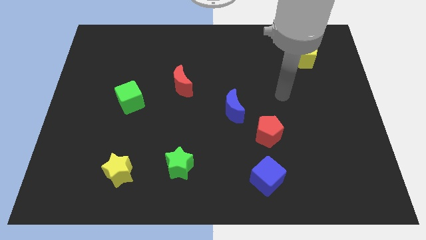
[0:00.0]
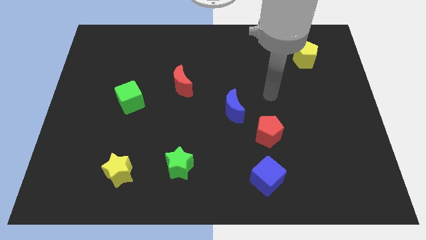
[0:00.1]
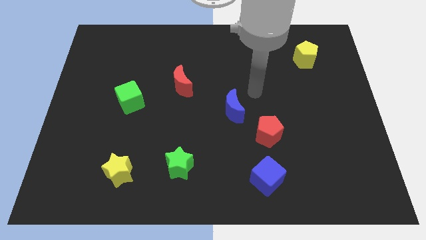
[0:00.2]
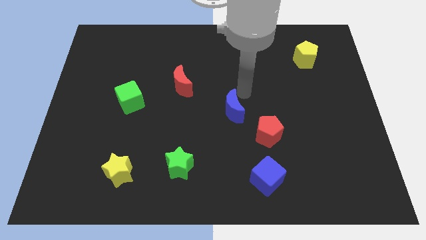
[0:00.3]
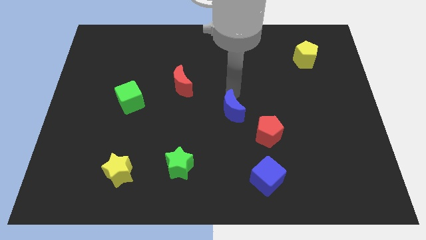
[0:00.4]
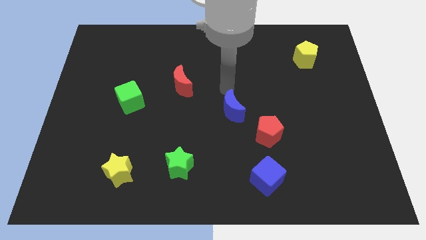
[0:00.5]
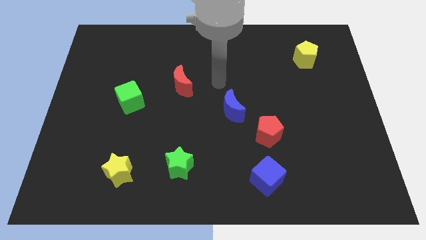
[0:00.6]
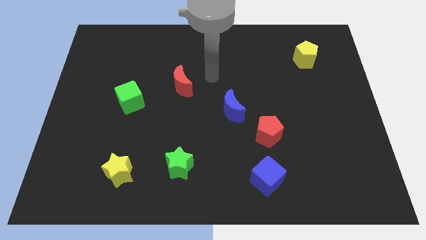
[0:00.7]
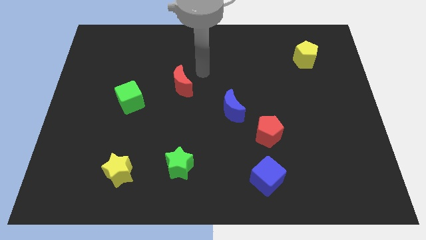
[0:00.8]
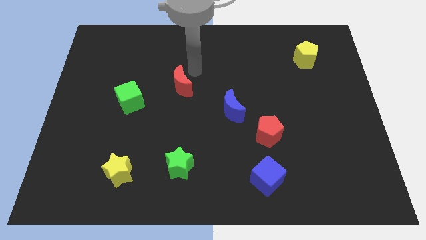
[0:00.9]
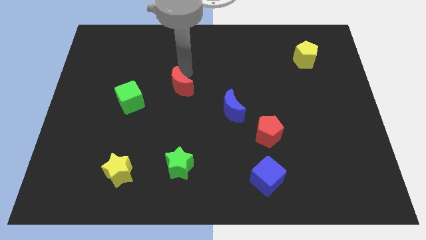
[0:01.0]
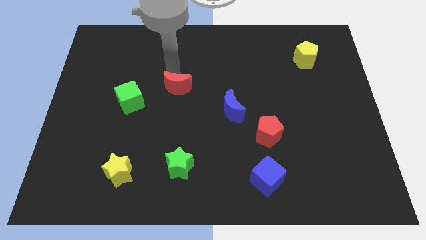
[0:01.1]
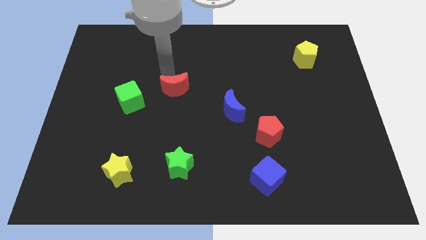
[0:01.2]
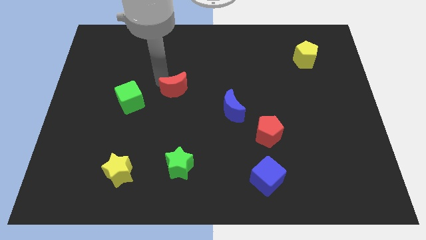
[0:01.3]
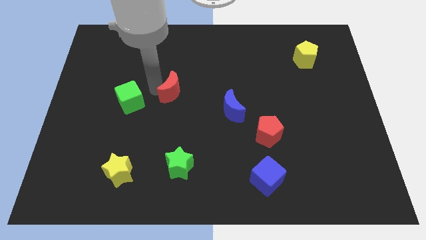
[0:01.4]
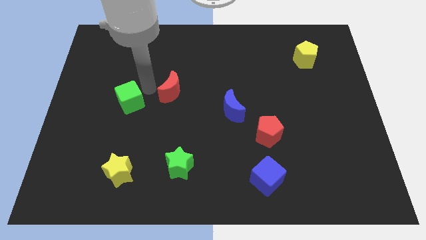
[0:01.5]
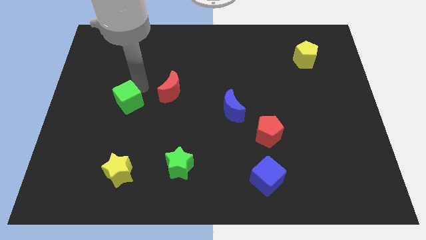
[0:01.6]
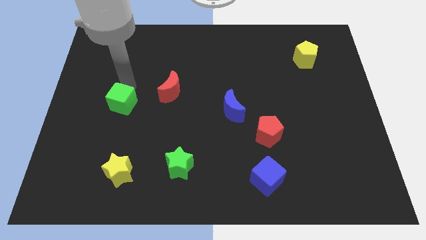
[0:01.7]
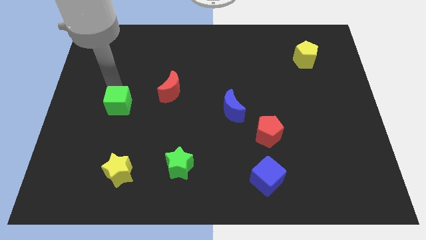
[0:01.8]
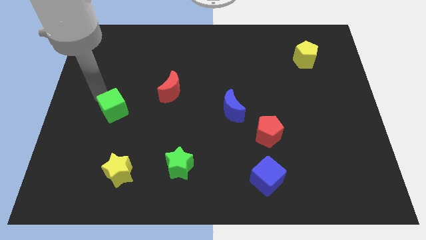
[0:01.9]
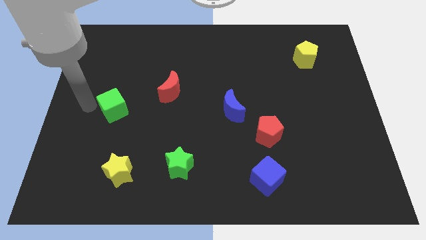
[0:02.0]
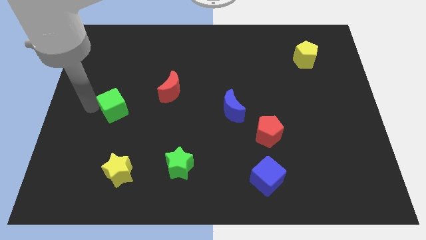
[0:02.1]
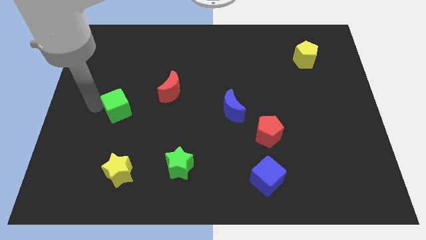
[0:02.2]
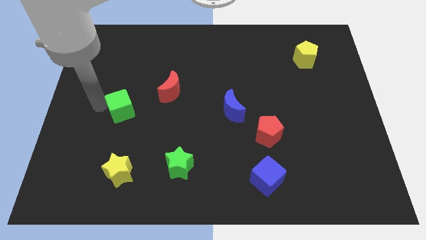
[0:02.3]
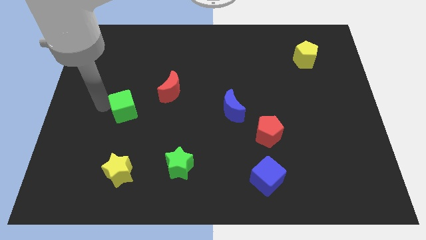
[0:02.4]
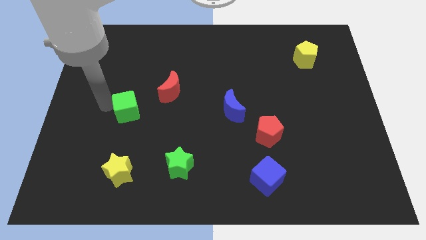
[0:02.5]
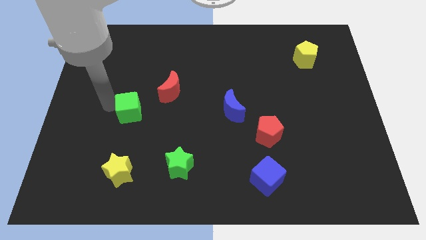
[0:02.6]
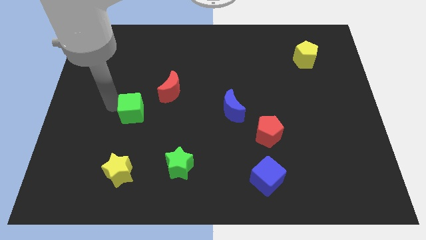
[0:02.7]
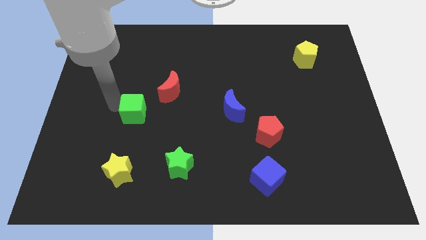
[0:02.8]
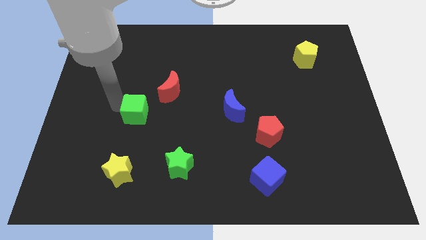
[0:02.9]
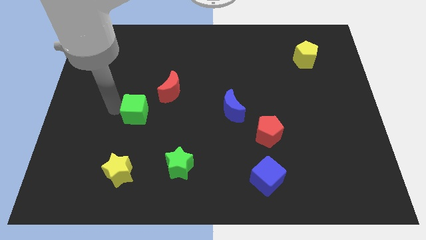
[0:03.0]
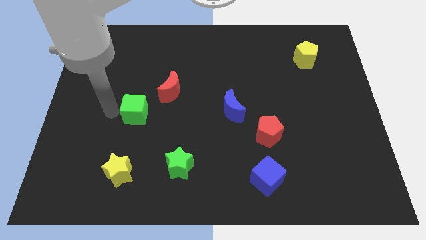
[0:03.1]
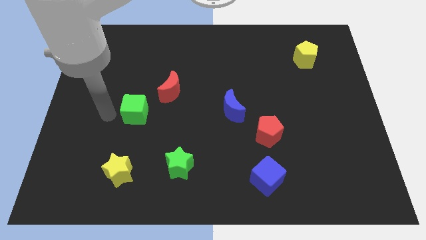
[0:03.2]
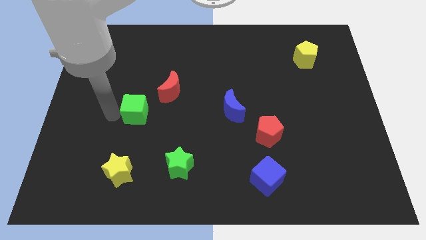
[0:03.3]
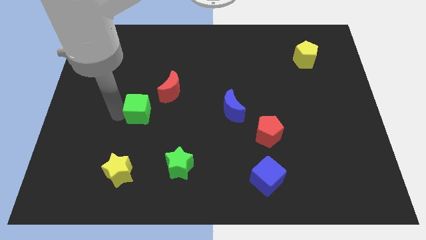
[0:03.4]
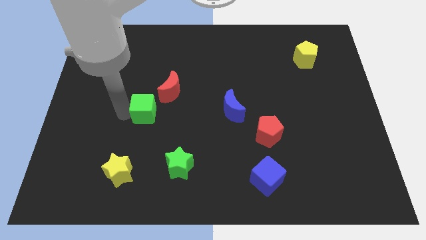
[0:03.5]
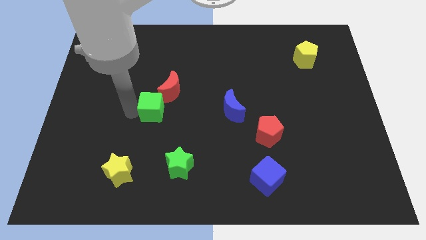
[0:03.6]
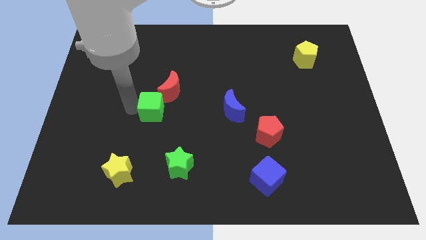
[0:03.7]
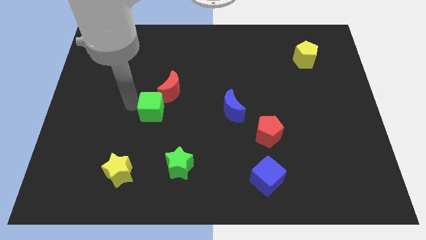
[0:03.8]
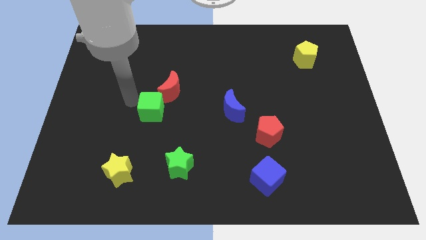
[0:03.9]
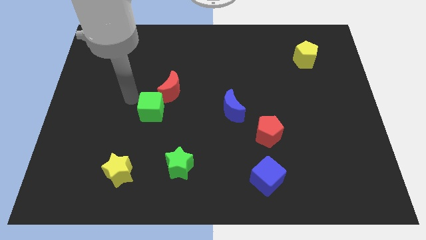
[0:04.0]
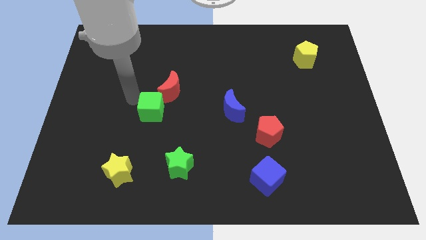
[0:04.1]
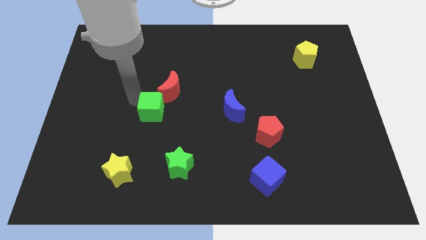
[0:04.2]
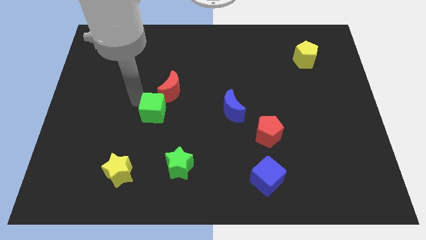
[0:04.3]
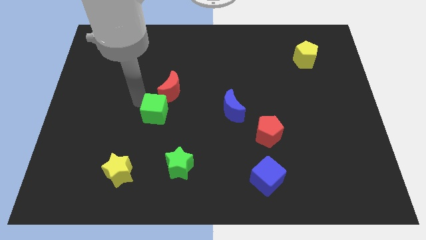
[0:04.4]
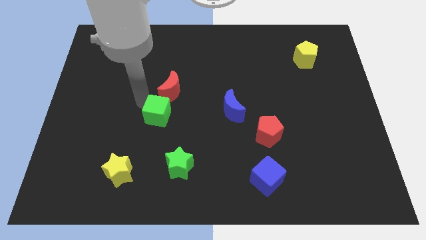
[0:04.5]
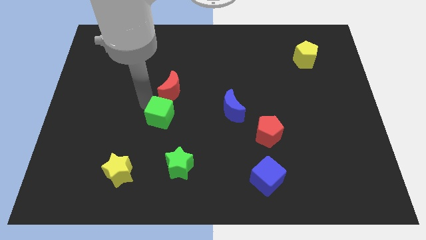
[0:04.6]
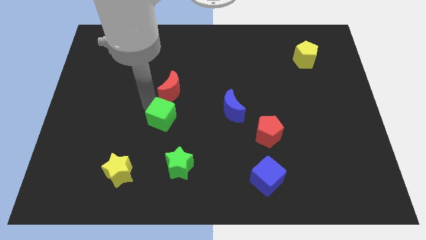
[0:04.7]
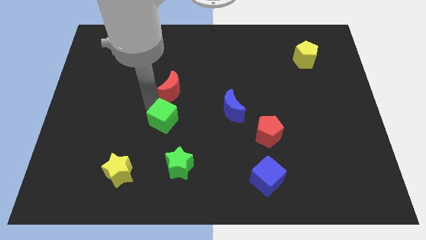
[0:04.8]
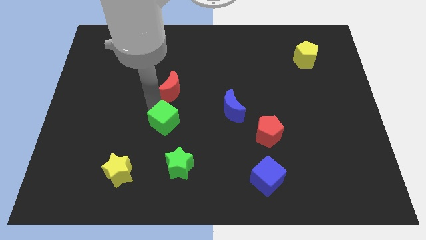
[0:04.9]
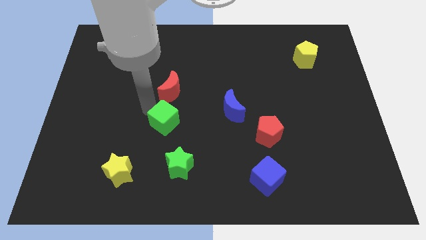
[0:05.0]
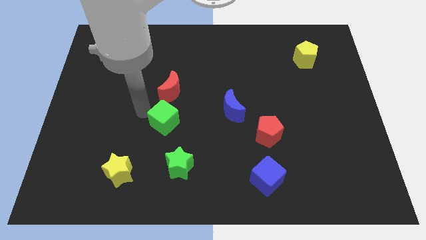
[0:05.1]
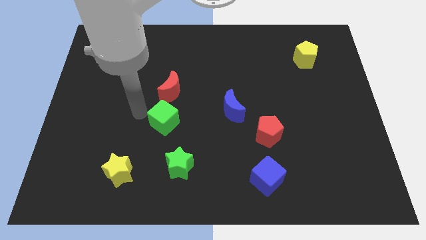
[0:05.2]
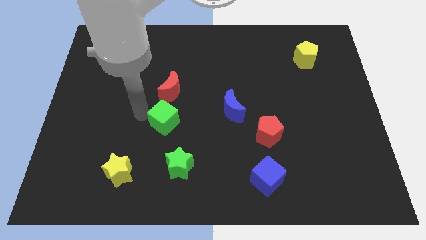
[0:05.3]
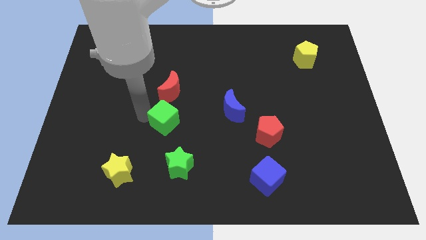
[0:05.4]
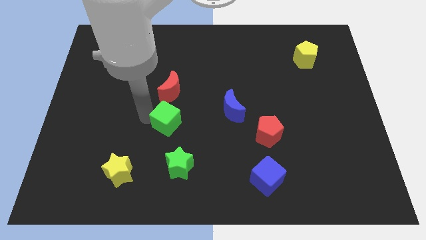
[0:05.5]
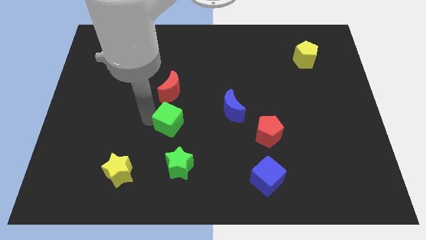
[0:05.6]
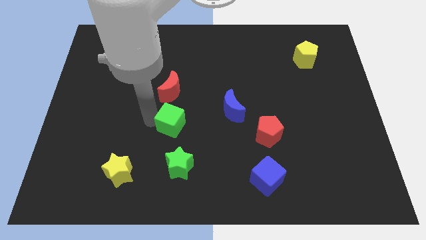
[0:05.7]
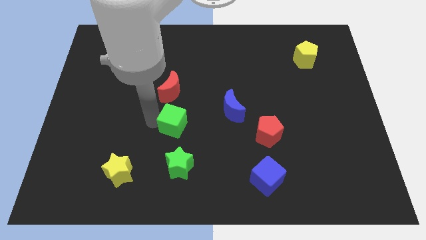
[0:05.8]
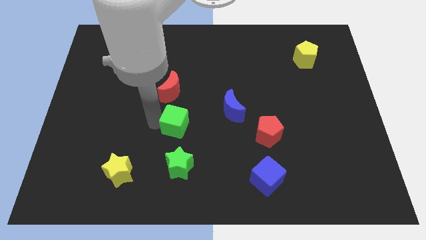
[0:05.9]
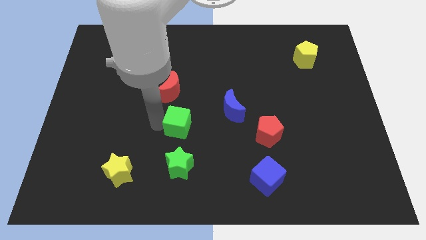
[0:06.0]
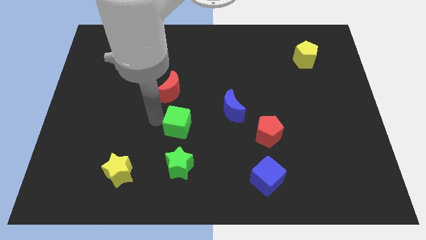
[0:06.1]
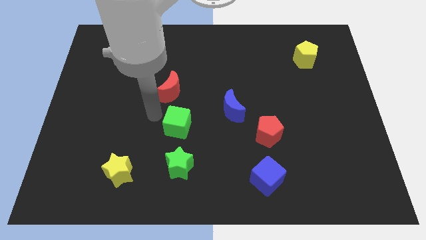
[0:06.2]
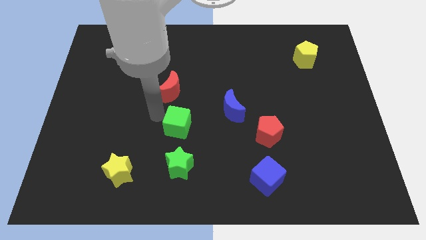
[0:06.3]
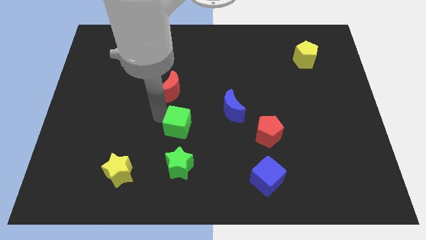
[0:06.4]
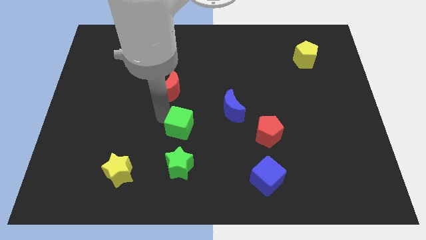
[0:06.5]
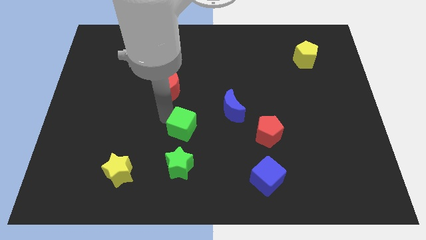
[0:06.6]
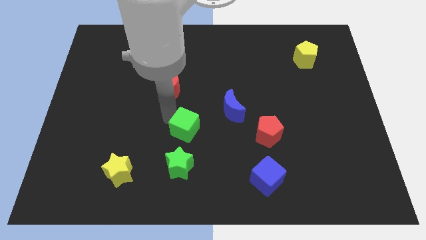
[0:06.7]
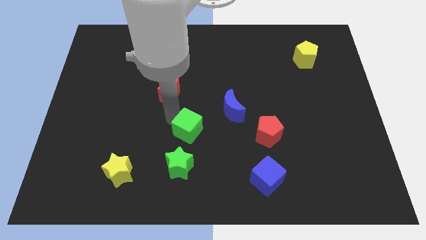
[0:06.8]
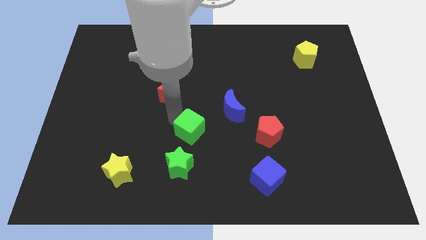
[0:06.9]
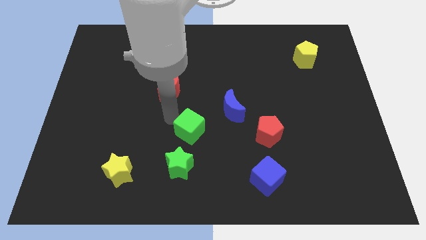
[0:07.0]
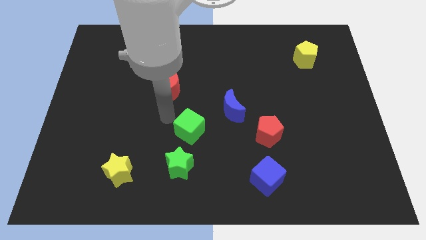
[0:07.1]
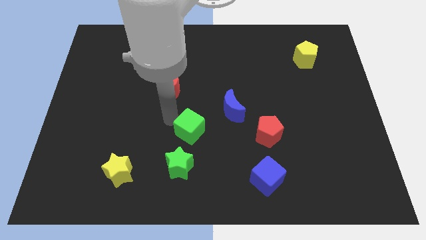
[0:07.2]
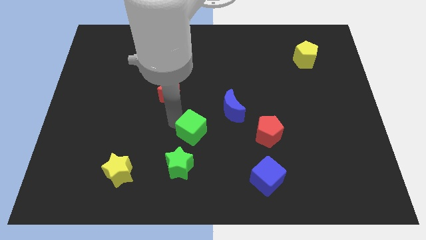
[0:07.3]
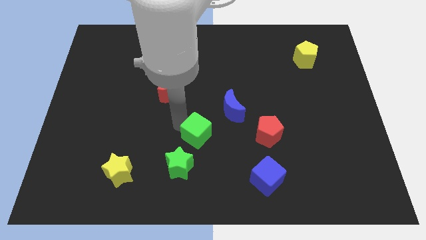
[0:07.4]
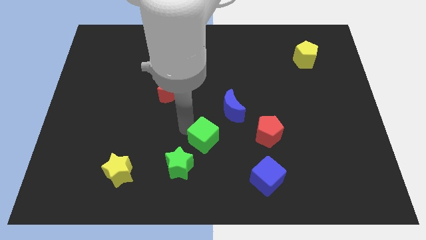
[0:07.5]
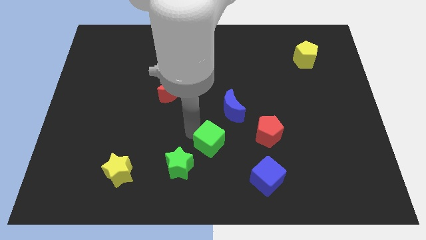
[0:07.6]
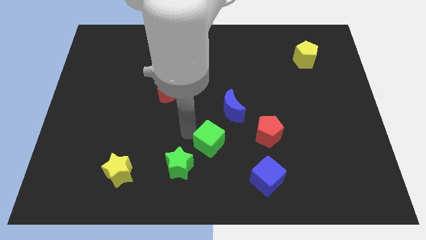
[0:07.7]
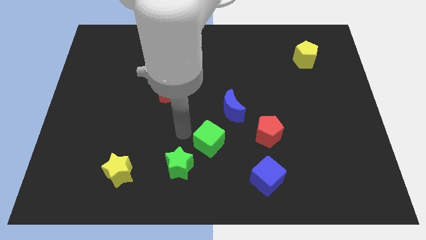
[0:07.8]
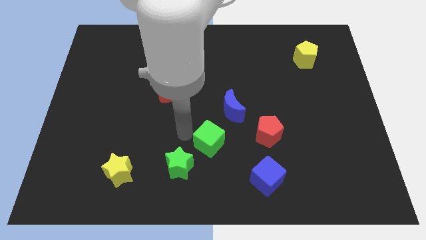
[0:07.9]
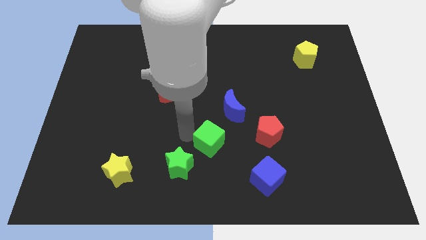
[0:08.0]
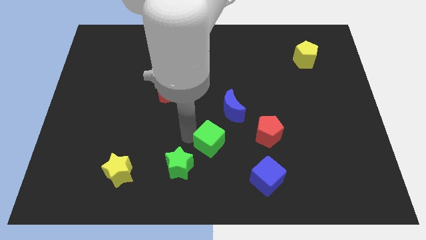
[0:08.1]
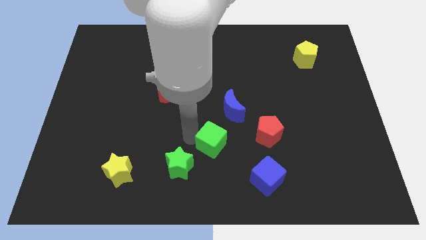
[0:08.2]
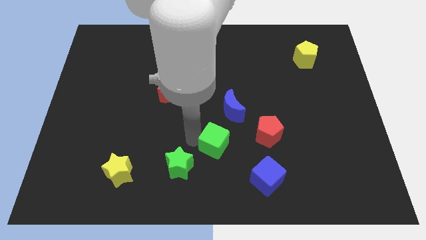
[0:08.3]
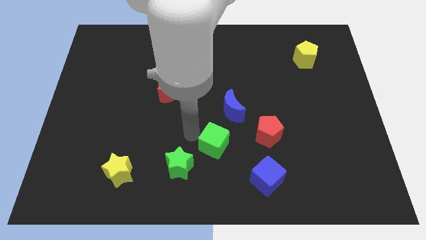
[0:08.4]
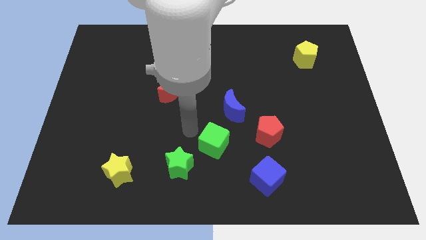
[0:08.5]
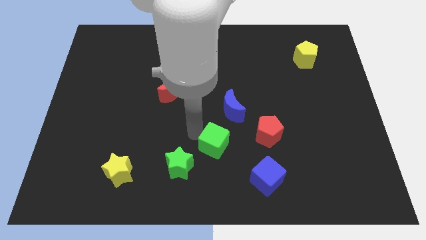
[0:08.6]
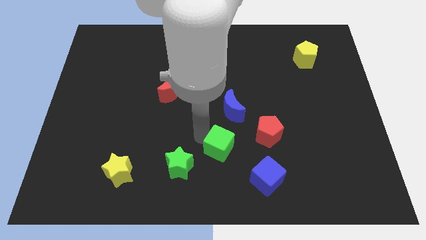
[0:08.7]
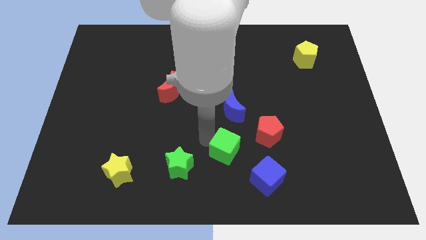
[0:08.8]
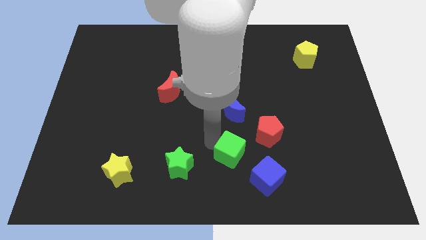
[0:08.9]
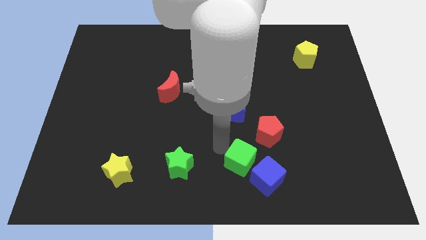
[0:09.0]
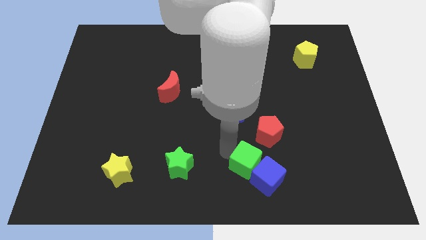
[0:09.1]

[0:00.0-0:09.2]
push the green cube next to the blue cube
